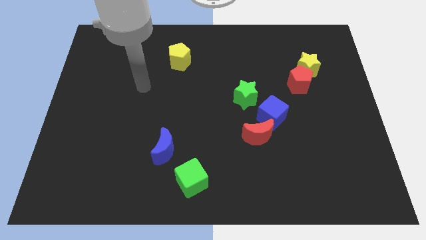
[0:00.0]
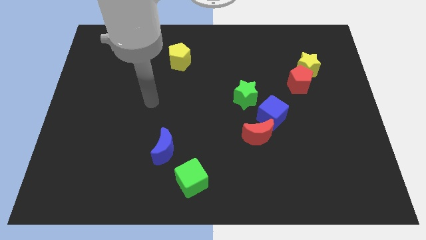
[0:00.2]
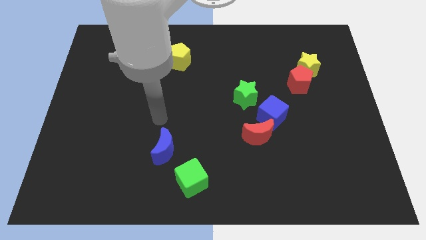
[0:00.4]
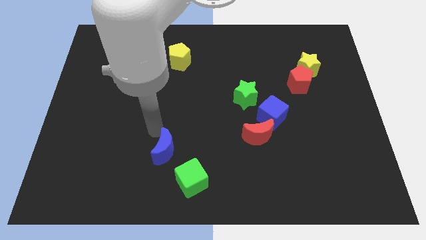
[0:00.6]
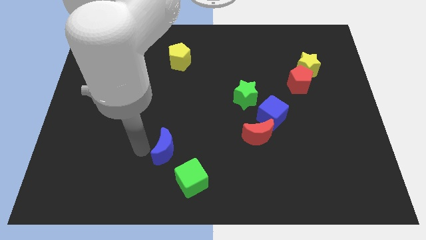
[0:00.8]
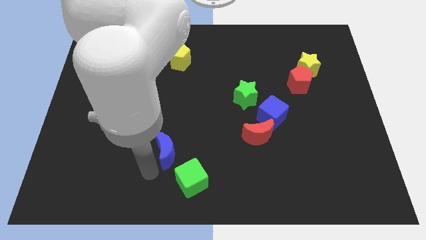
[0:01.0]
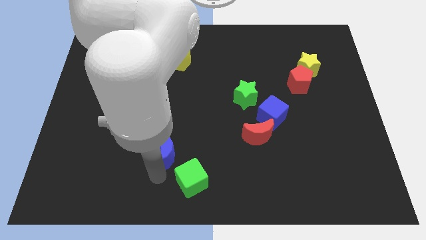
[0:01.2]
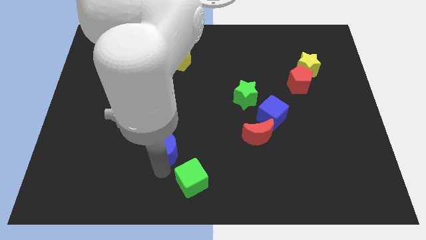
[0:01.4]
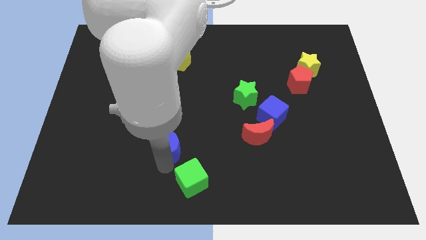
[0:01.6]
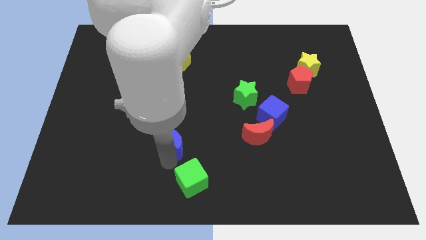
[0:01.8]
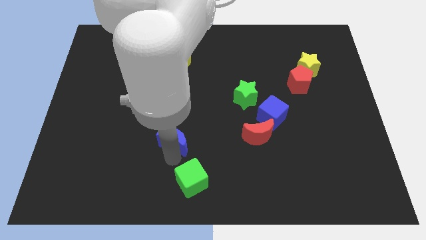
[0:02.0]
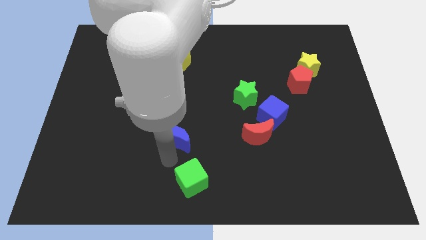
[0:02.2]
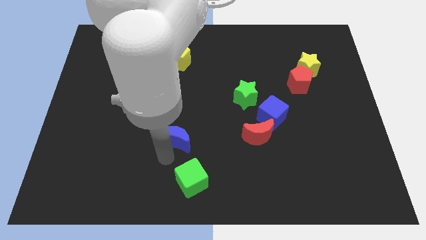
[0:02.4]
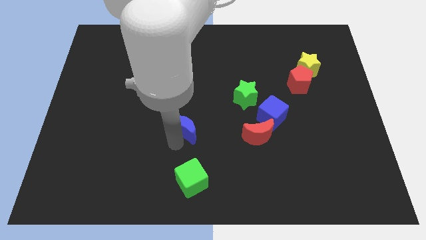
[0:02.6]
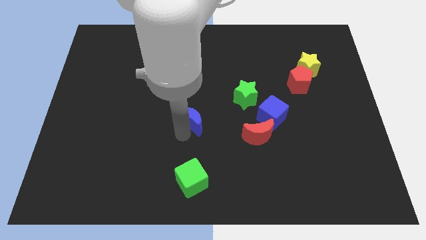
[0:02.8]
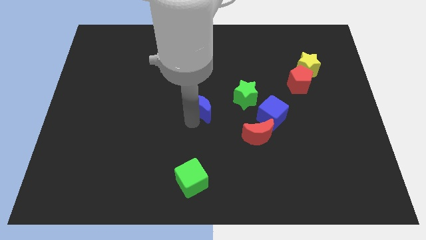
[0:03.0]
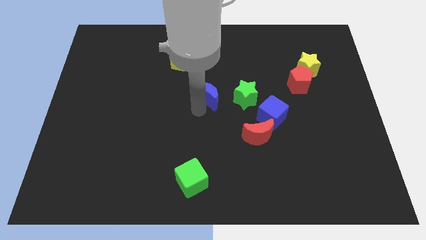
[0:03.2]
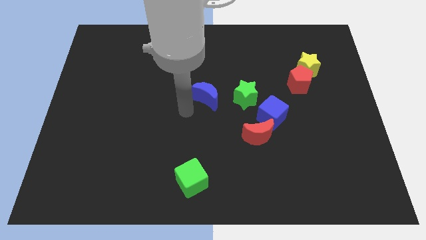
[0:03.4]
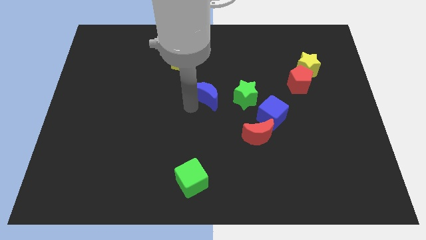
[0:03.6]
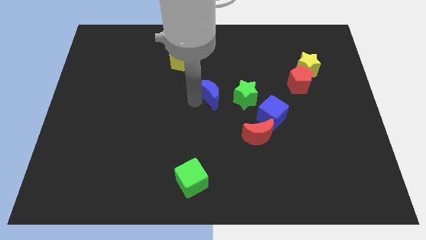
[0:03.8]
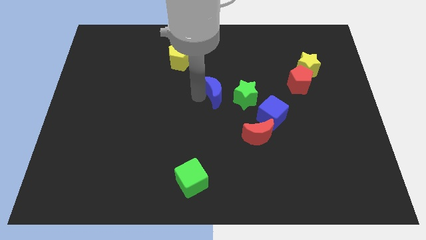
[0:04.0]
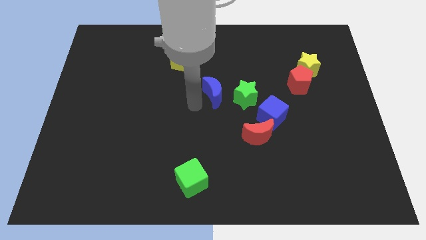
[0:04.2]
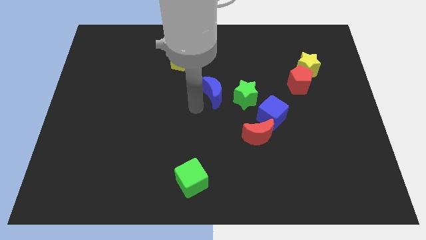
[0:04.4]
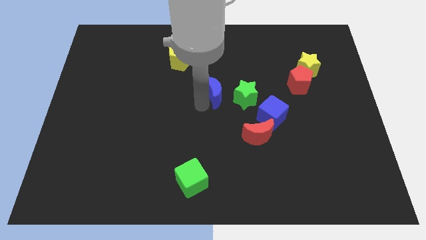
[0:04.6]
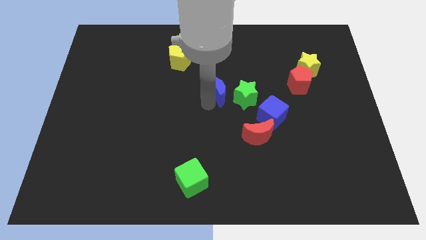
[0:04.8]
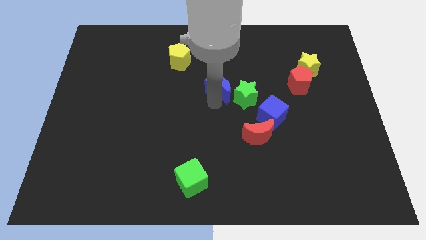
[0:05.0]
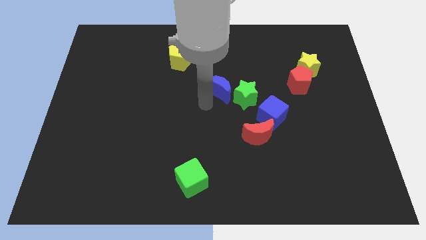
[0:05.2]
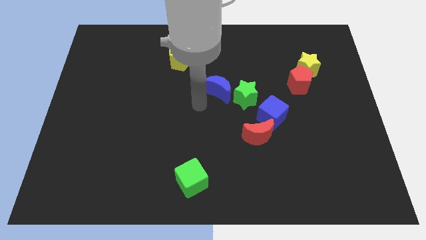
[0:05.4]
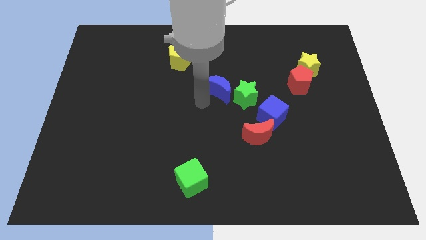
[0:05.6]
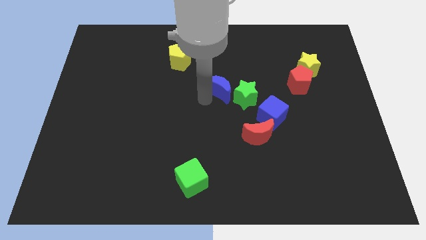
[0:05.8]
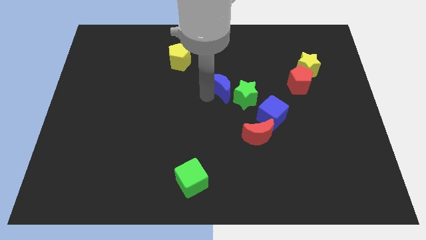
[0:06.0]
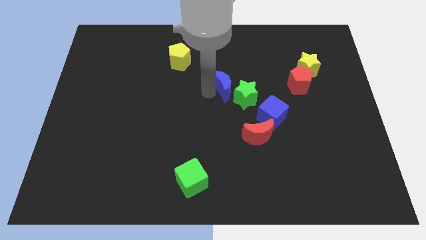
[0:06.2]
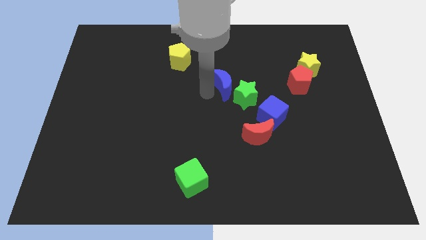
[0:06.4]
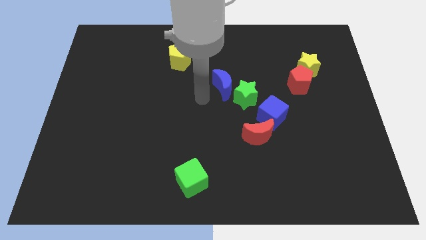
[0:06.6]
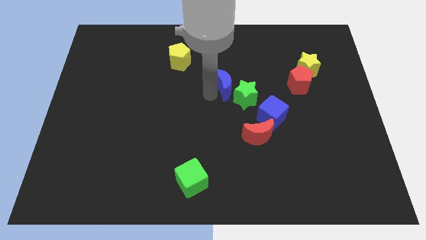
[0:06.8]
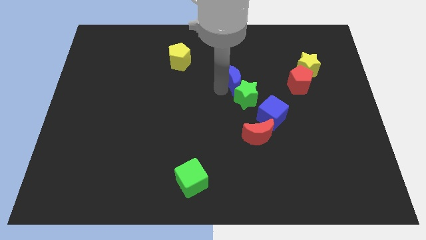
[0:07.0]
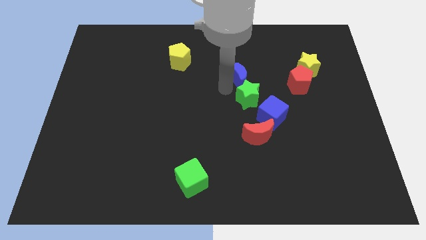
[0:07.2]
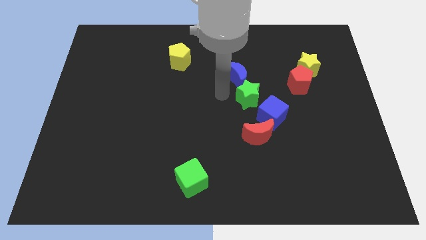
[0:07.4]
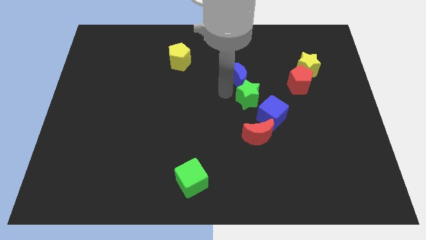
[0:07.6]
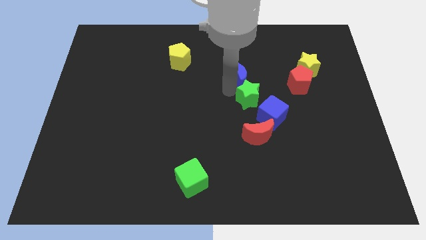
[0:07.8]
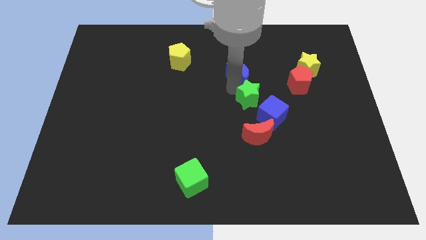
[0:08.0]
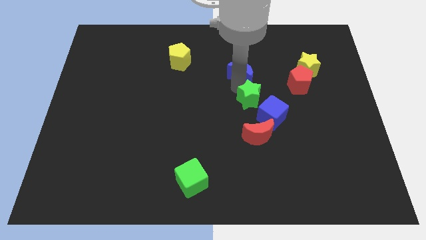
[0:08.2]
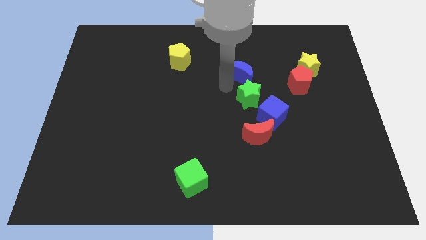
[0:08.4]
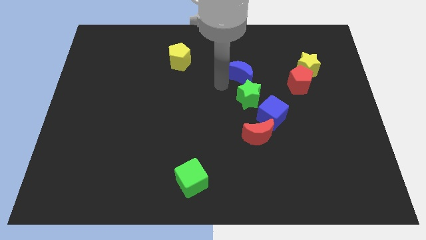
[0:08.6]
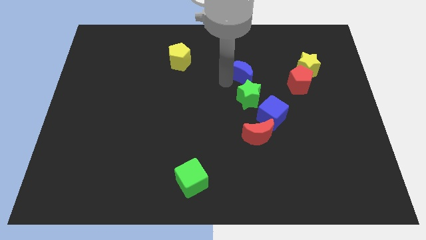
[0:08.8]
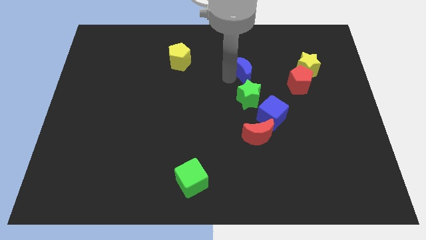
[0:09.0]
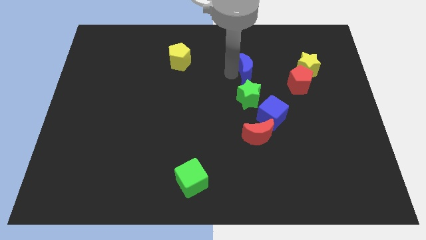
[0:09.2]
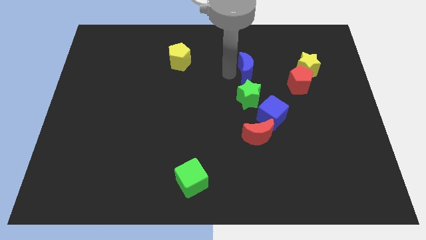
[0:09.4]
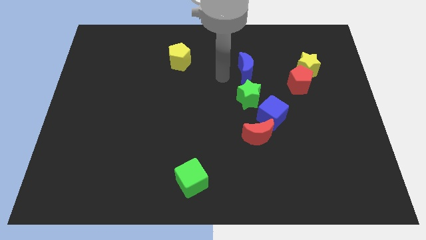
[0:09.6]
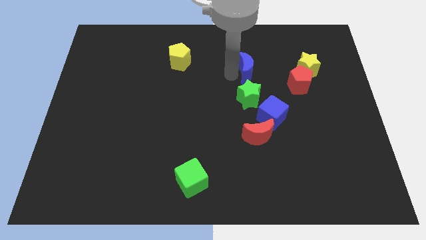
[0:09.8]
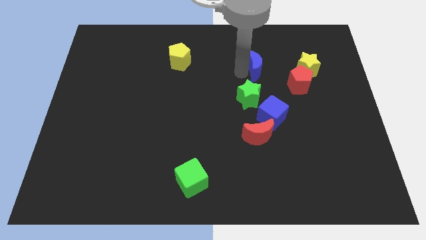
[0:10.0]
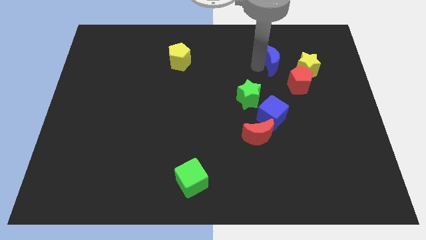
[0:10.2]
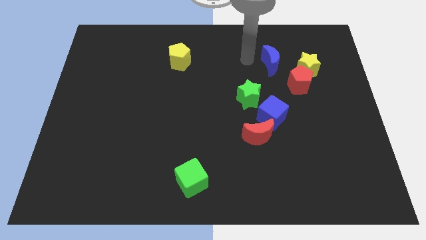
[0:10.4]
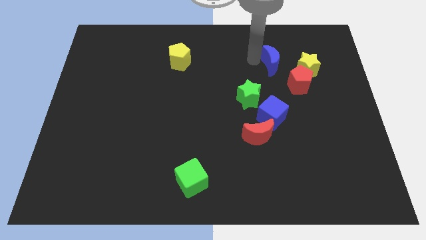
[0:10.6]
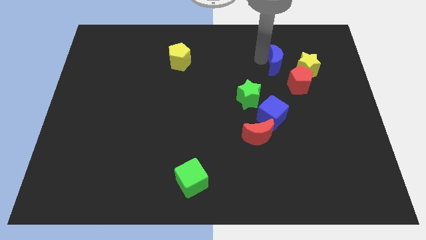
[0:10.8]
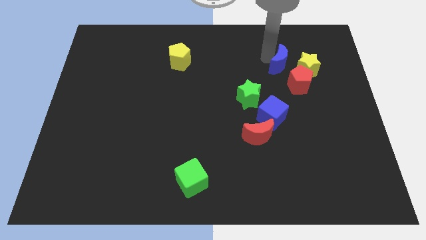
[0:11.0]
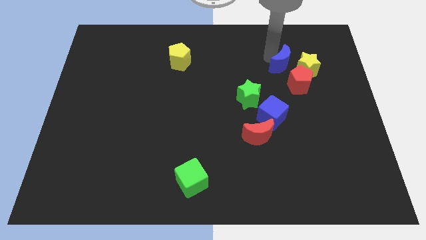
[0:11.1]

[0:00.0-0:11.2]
move the blue moon to the yellow star

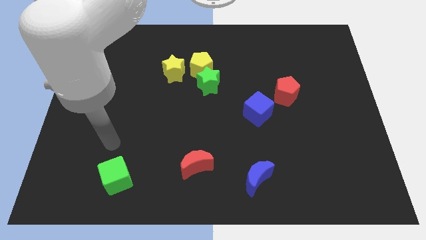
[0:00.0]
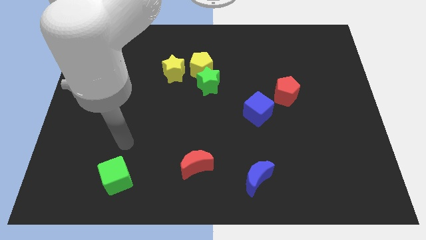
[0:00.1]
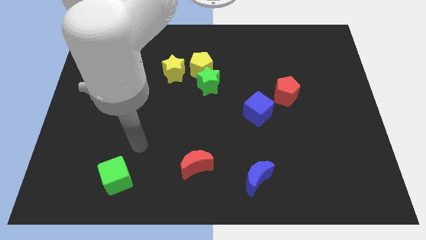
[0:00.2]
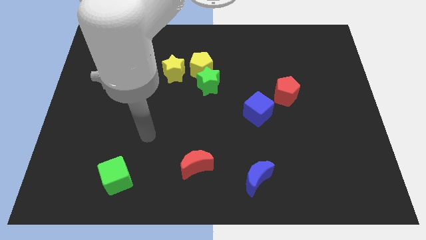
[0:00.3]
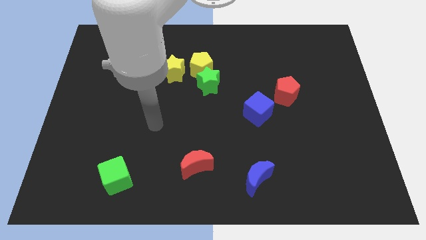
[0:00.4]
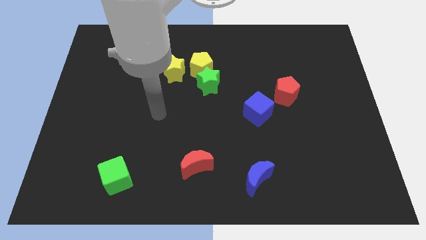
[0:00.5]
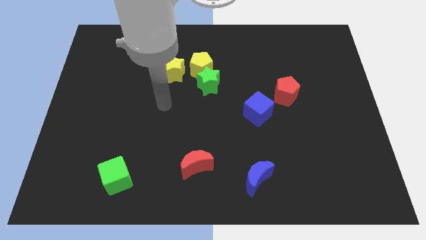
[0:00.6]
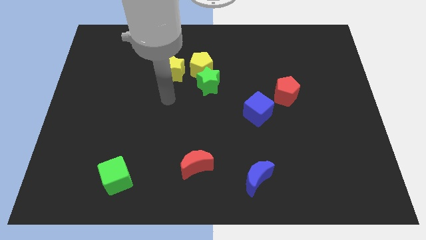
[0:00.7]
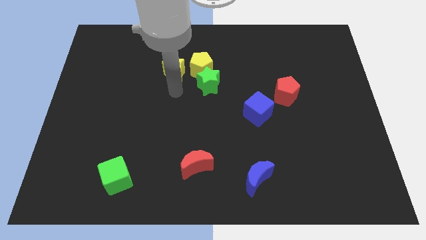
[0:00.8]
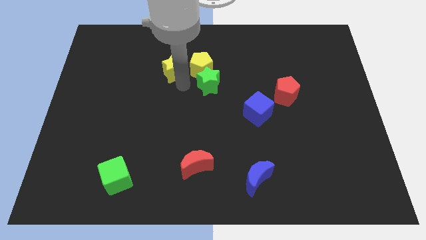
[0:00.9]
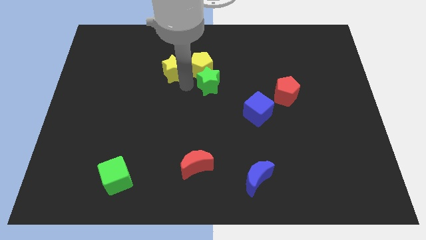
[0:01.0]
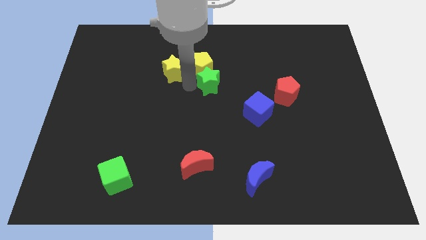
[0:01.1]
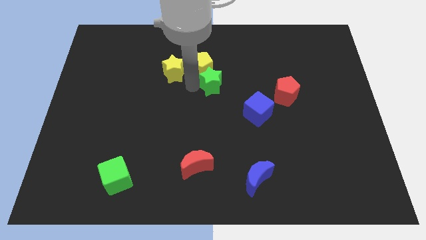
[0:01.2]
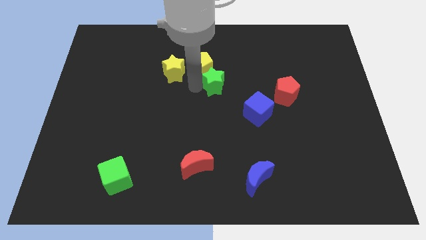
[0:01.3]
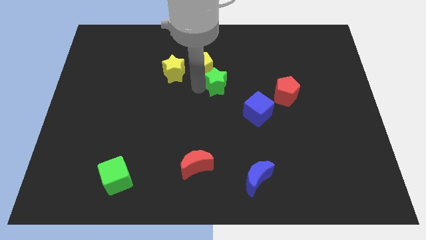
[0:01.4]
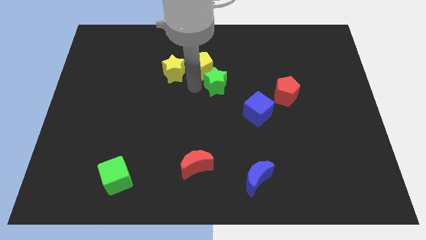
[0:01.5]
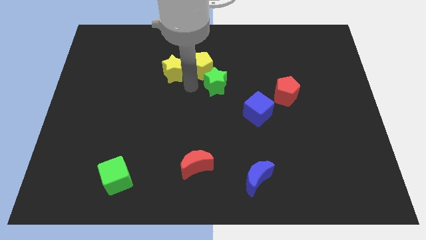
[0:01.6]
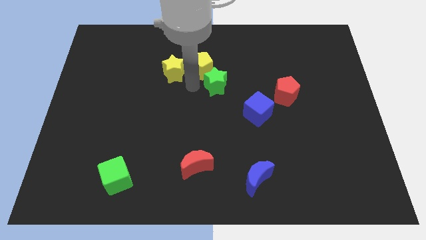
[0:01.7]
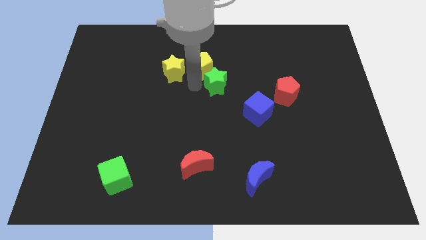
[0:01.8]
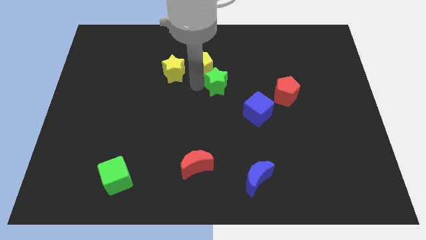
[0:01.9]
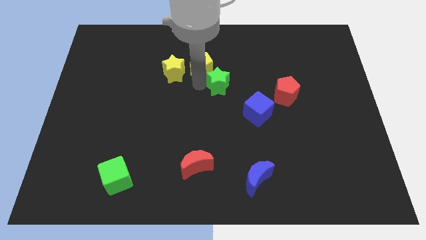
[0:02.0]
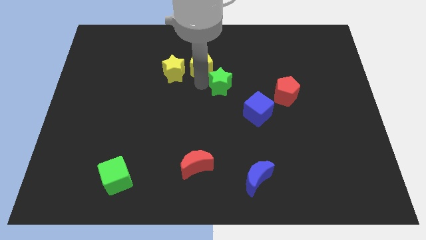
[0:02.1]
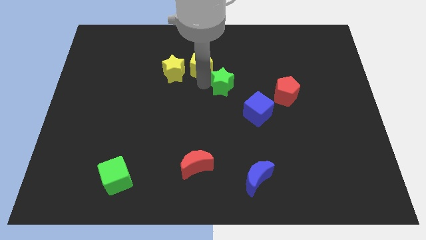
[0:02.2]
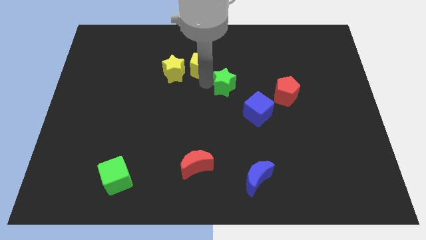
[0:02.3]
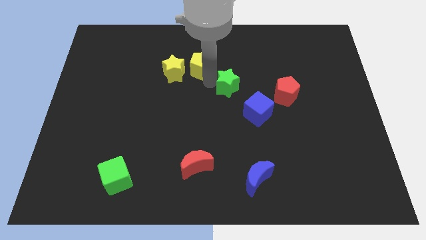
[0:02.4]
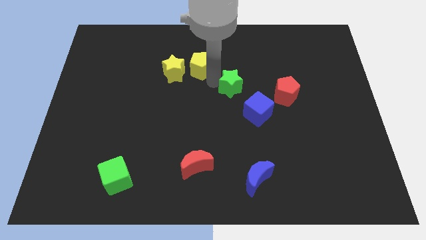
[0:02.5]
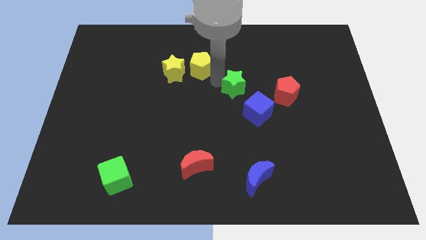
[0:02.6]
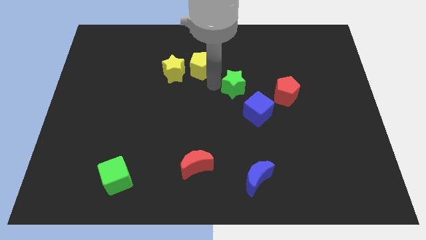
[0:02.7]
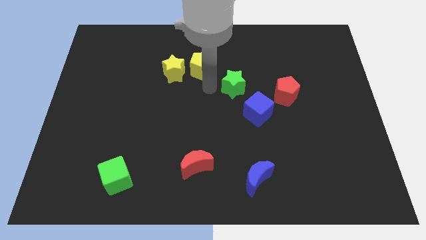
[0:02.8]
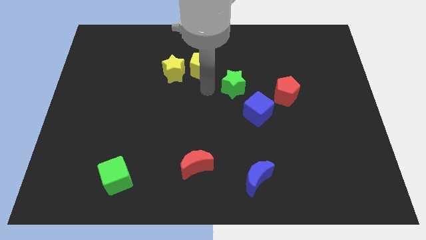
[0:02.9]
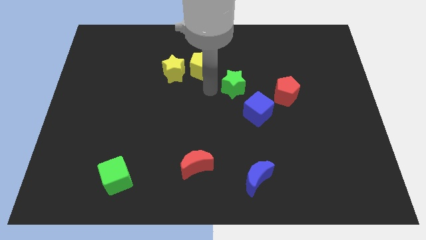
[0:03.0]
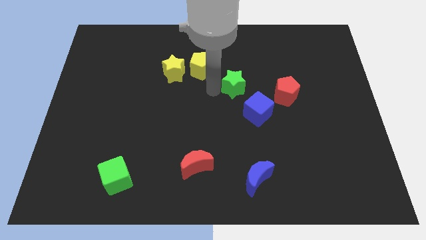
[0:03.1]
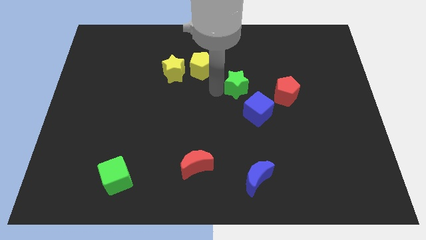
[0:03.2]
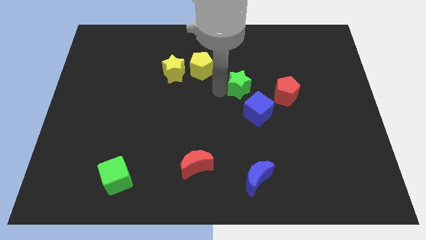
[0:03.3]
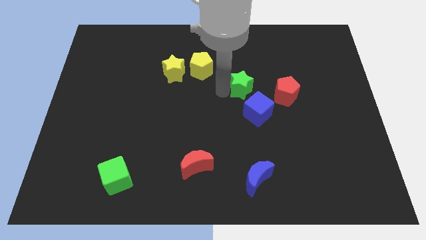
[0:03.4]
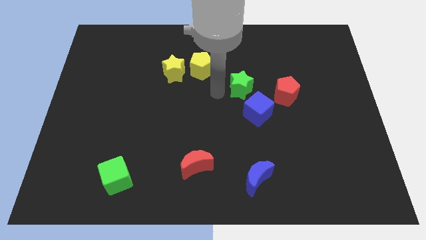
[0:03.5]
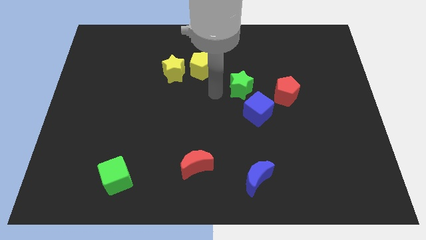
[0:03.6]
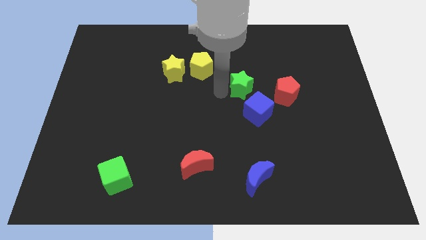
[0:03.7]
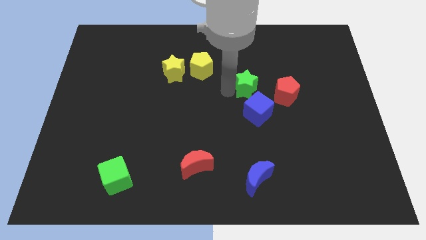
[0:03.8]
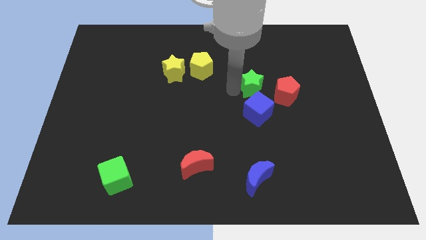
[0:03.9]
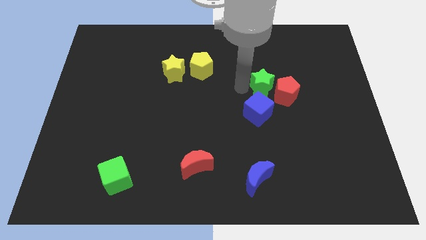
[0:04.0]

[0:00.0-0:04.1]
put the green star to the red pentagon
